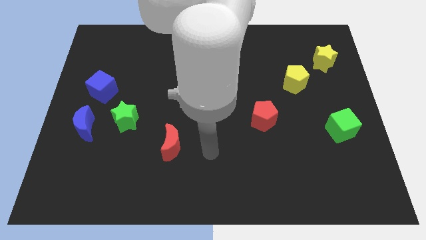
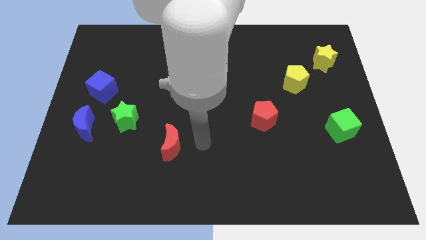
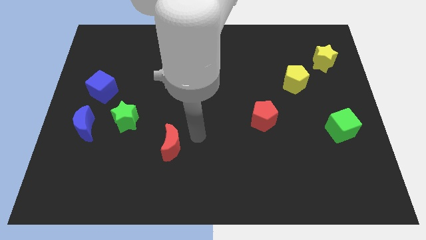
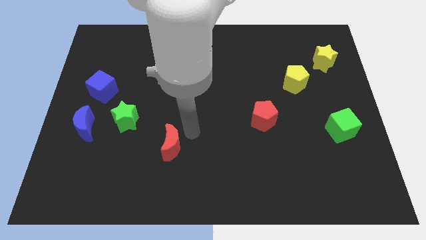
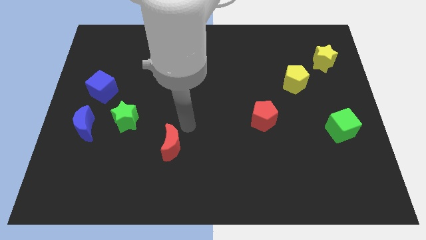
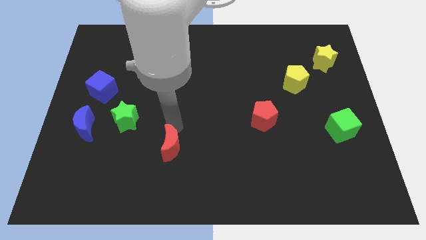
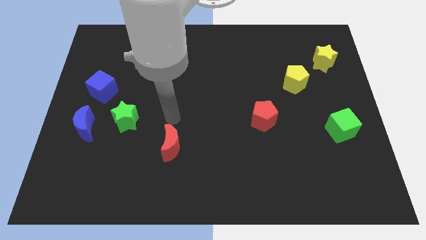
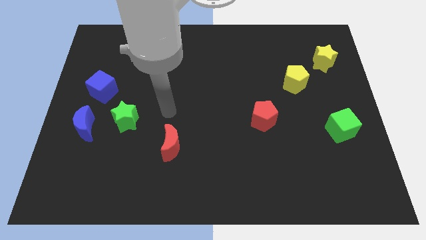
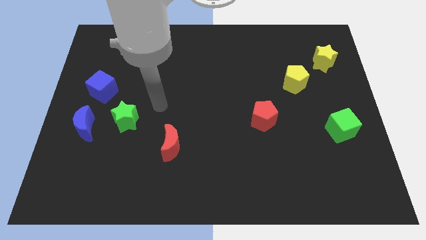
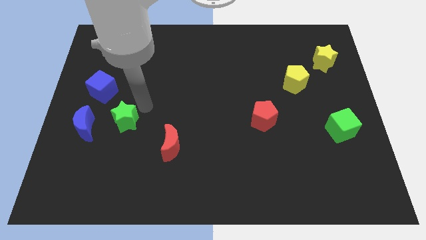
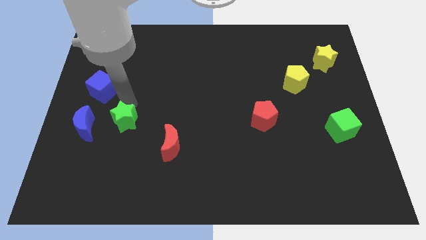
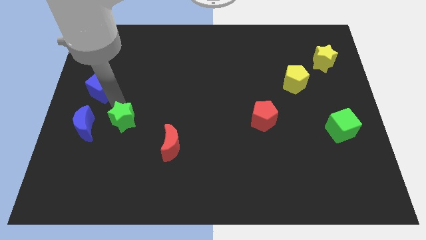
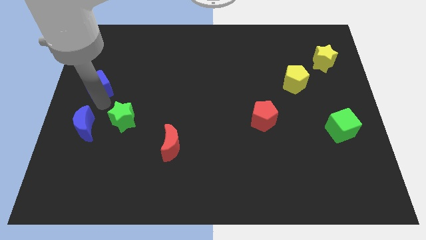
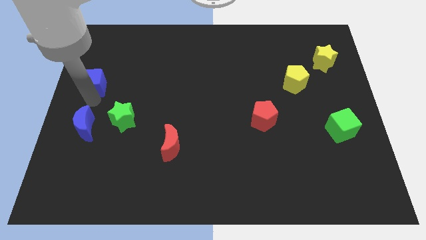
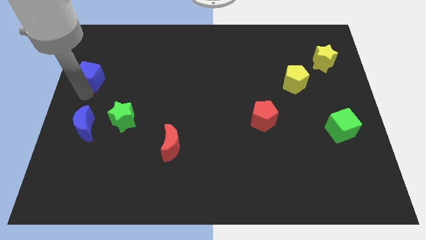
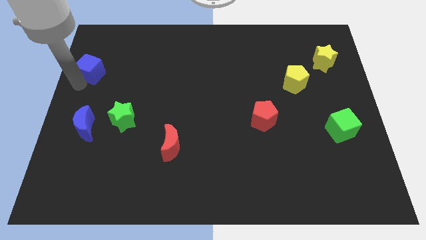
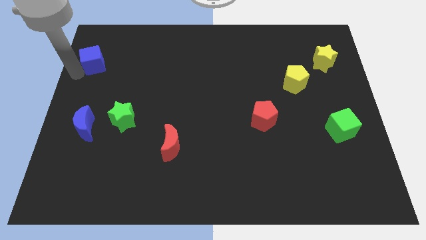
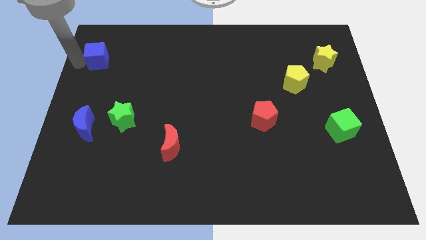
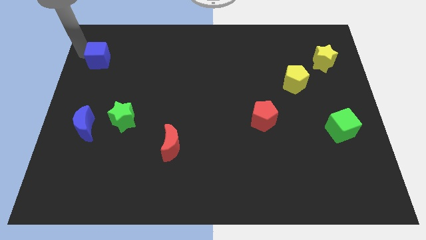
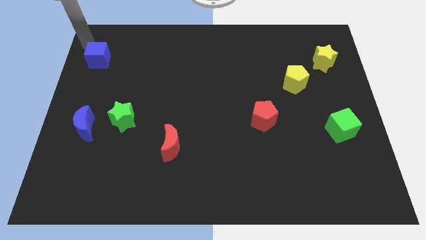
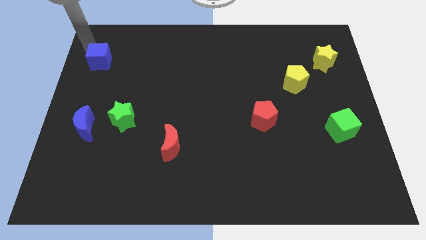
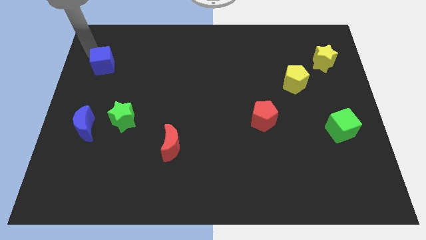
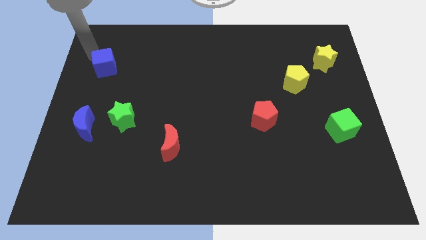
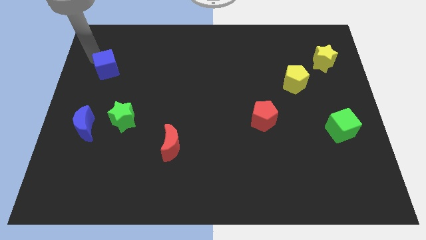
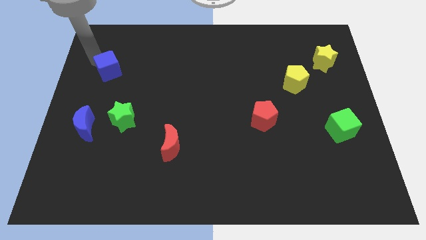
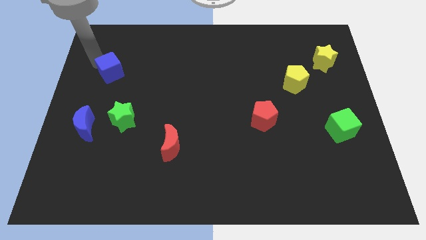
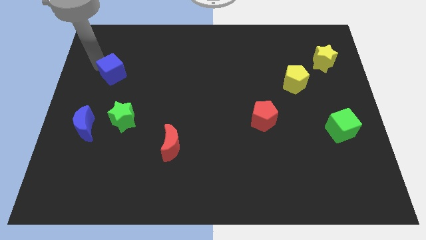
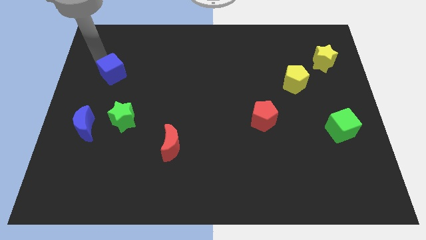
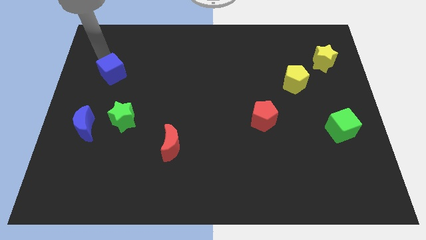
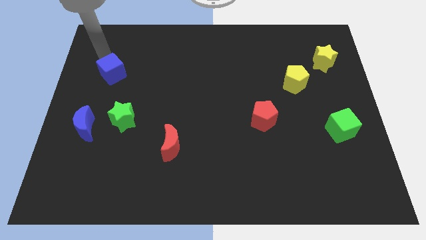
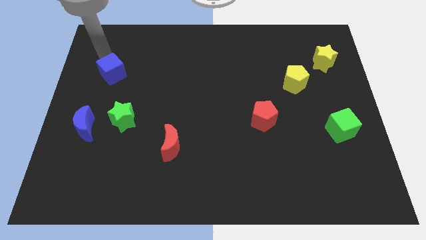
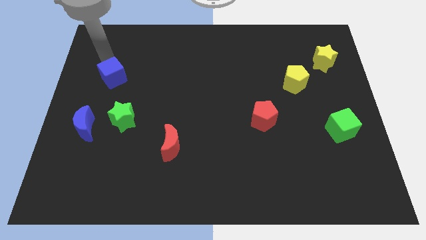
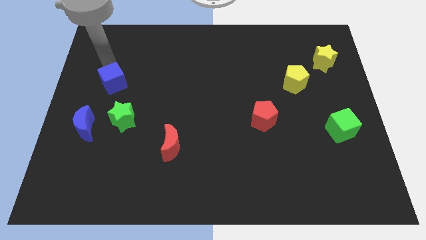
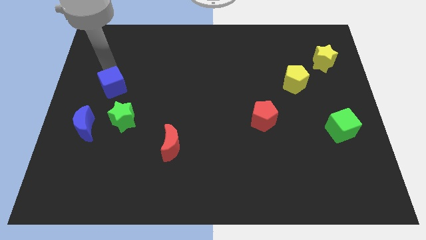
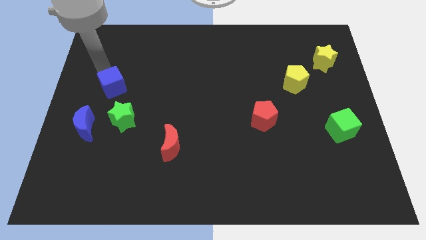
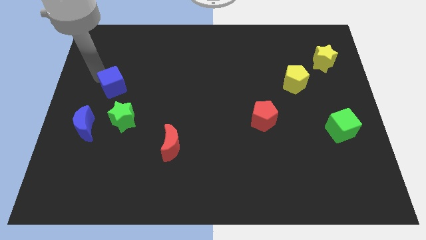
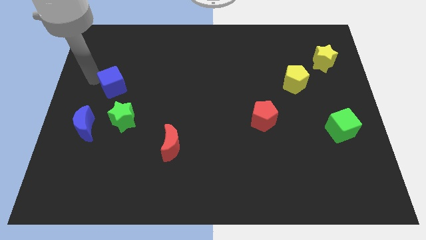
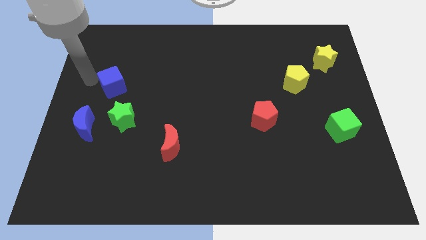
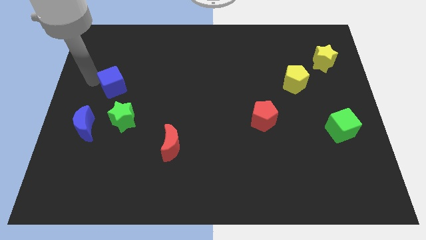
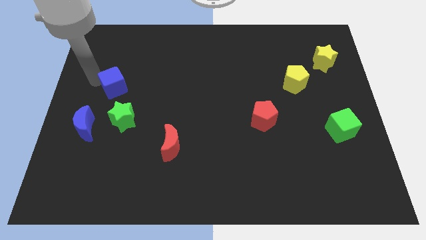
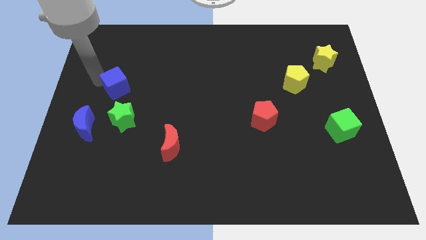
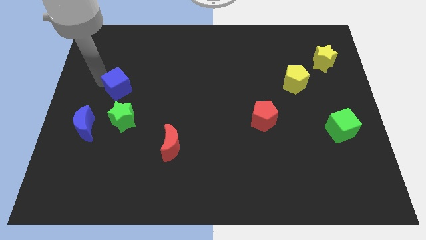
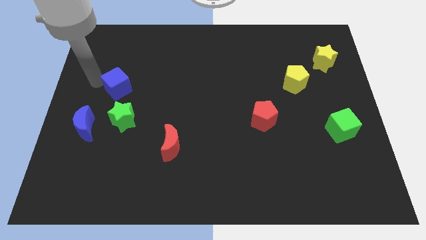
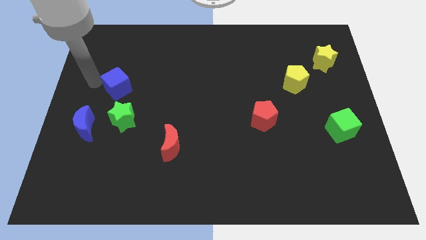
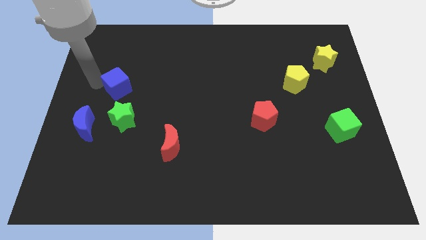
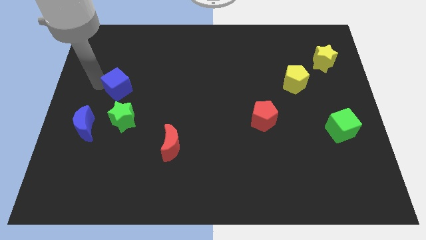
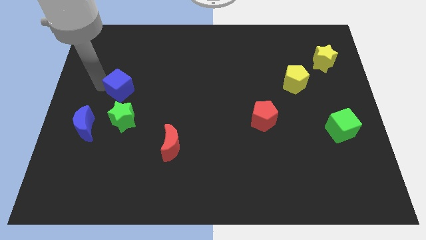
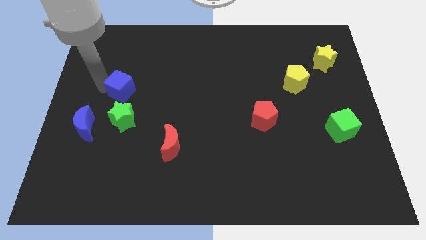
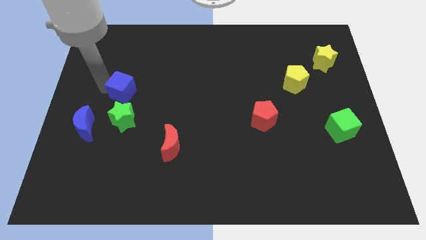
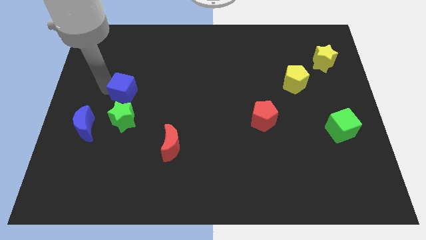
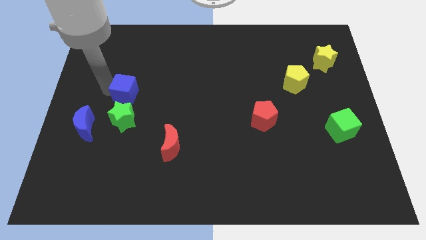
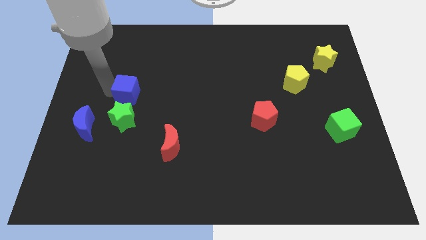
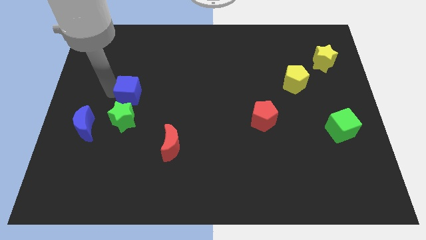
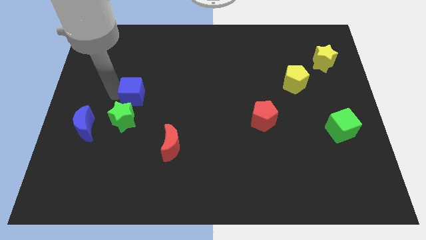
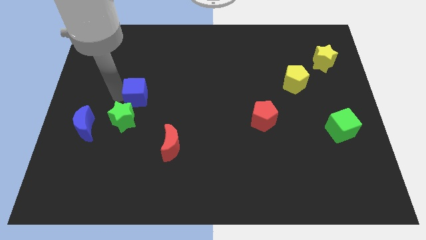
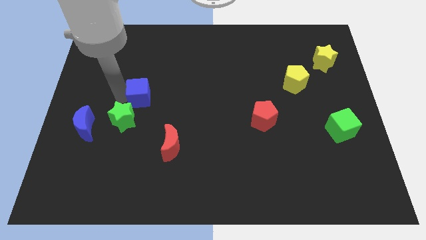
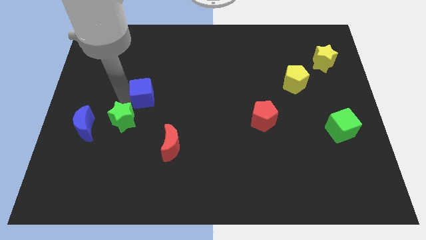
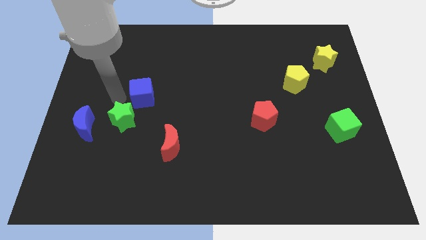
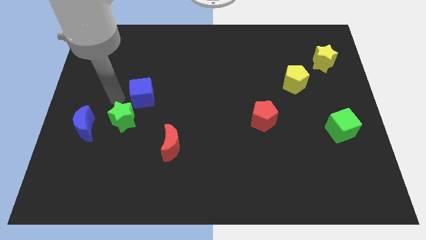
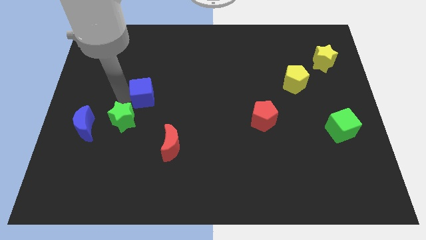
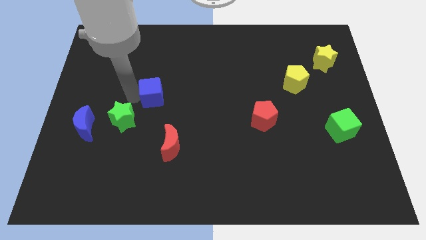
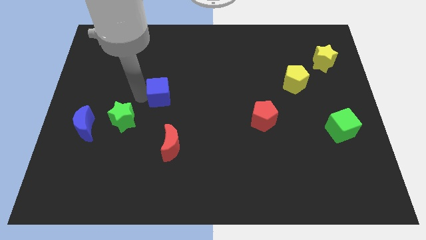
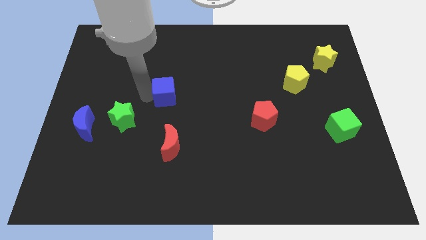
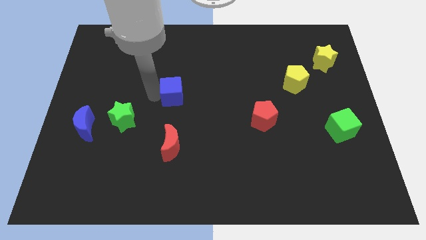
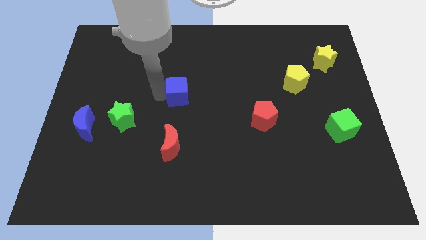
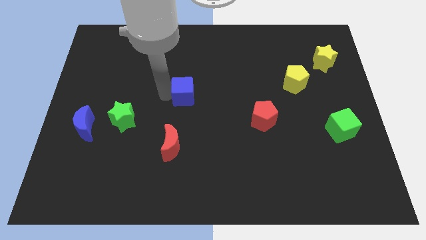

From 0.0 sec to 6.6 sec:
slide the blue cube to the right

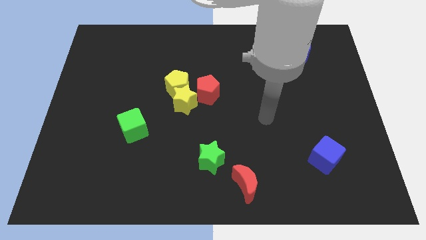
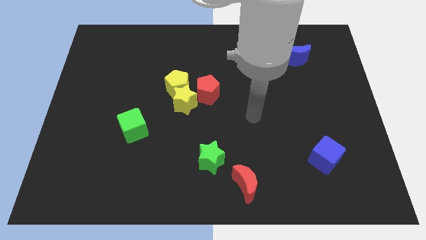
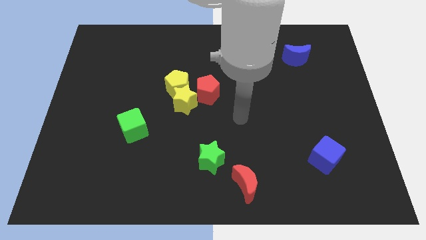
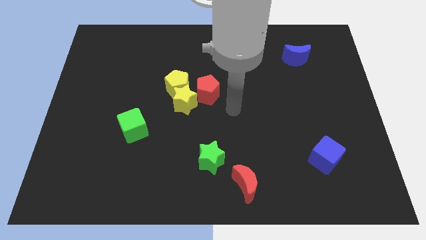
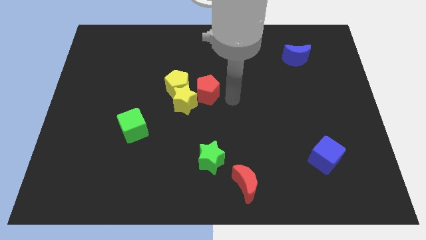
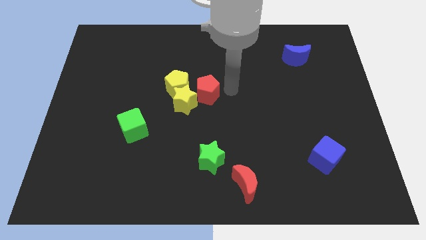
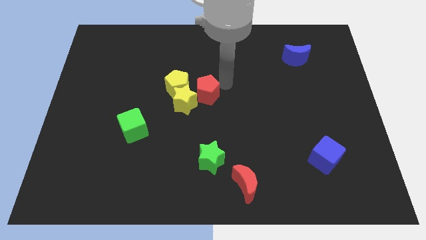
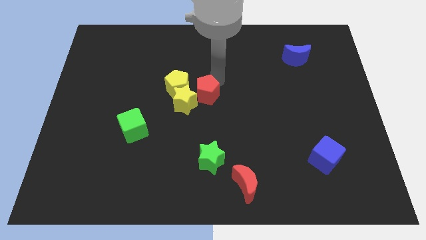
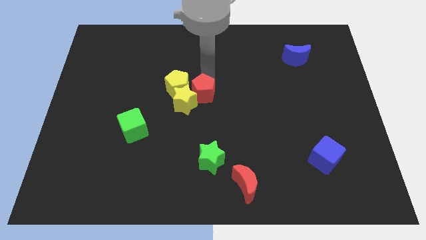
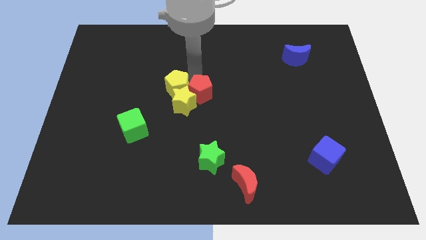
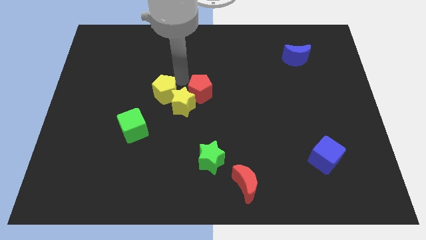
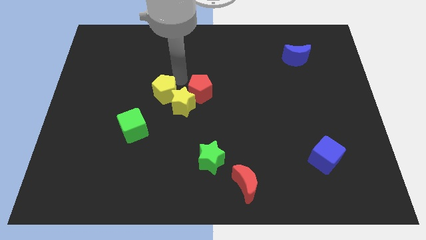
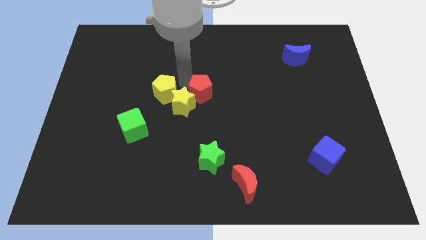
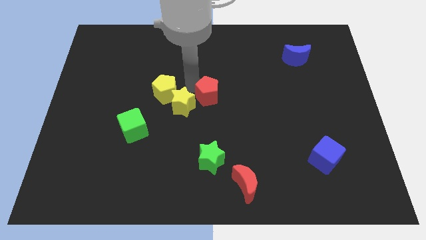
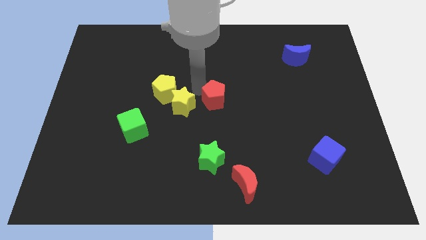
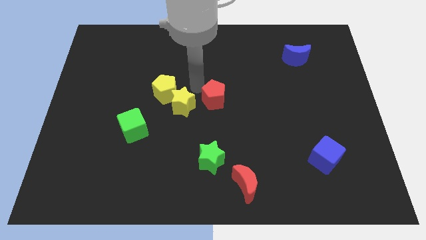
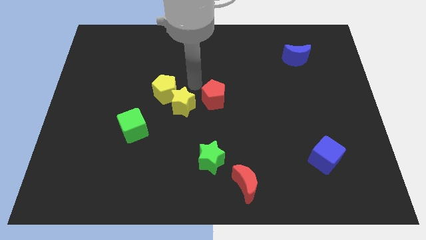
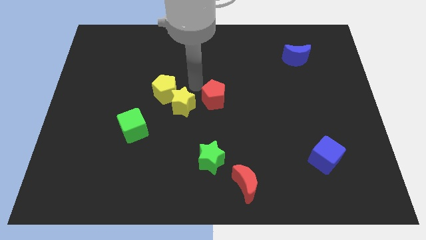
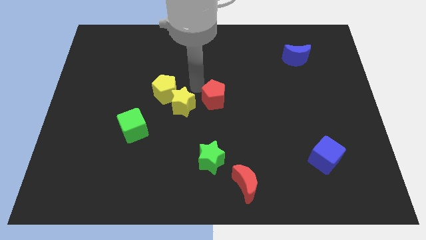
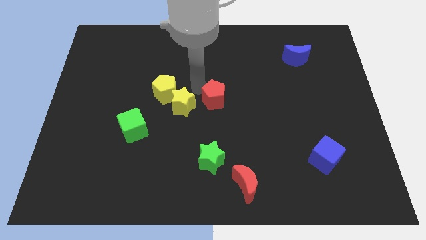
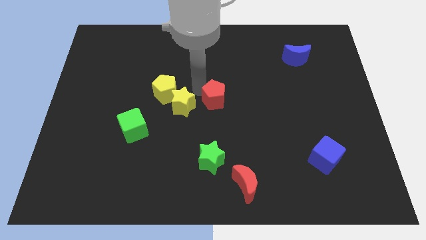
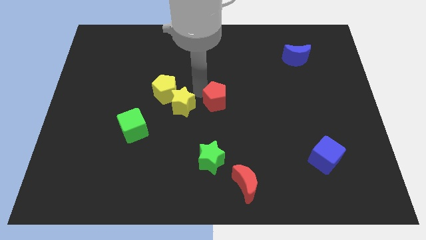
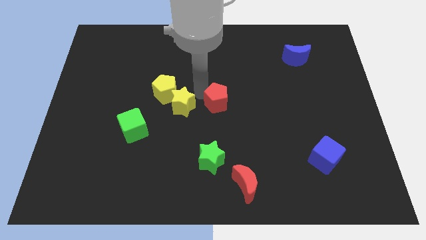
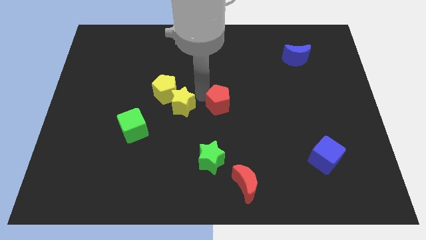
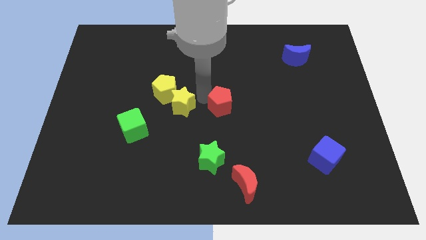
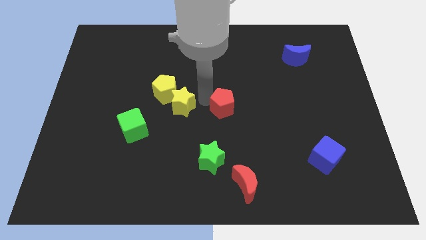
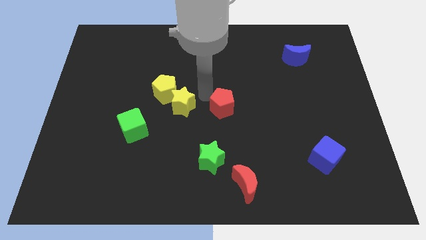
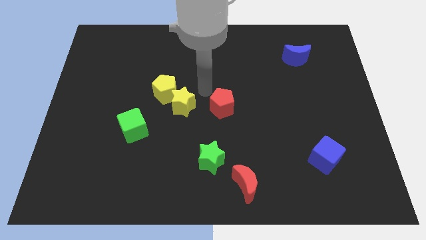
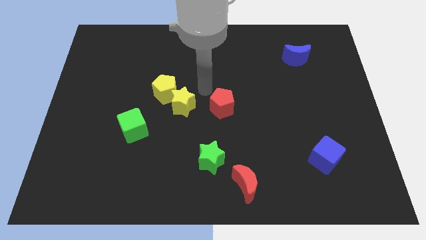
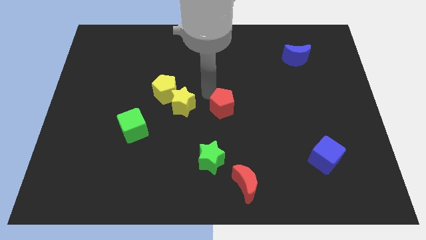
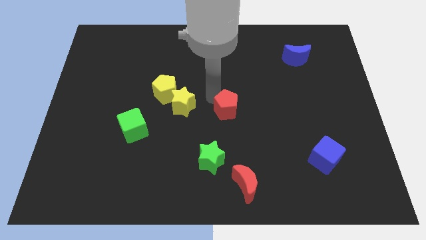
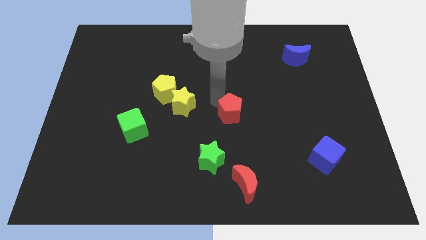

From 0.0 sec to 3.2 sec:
move the red pentagon down and right slightly
